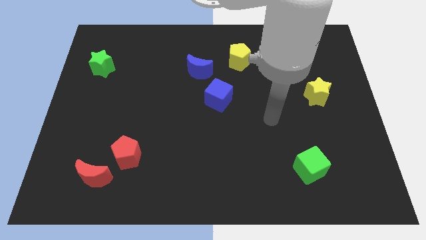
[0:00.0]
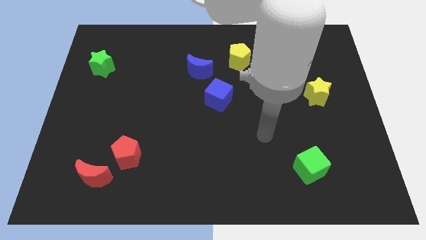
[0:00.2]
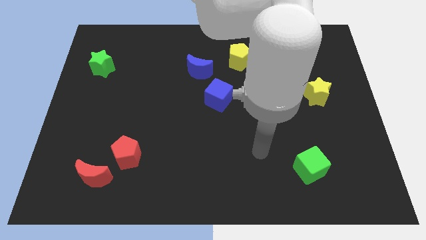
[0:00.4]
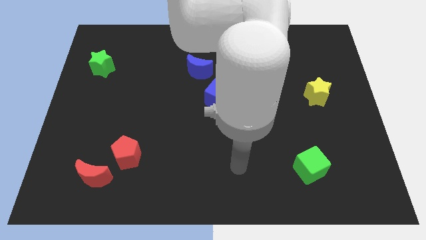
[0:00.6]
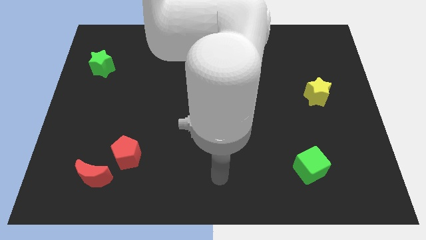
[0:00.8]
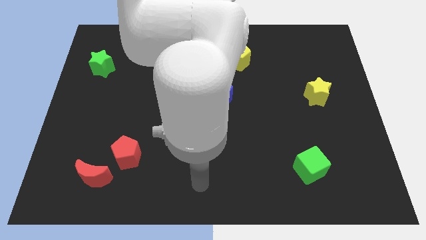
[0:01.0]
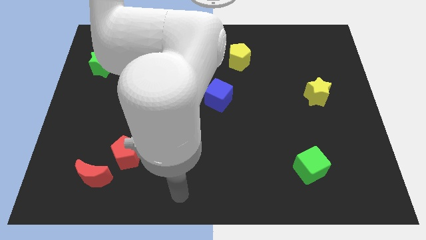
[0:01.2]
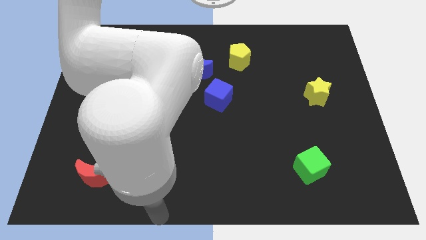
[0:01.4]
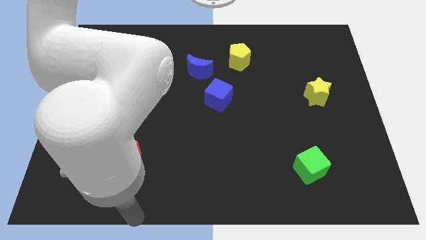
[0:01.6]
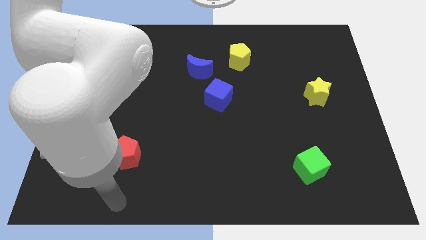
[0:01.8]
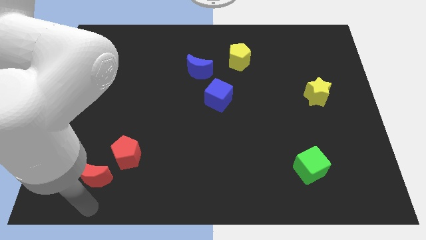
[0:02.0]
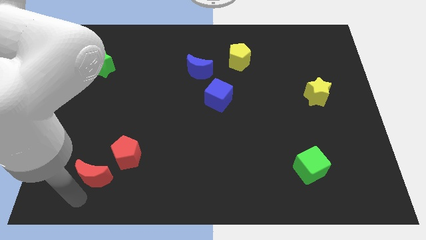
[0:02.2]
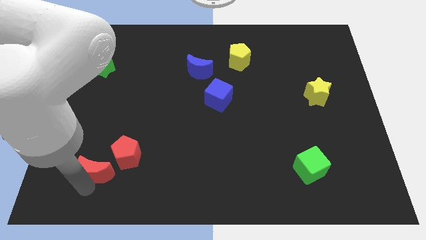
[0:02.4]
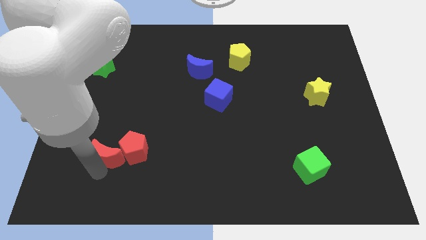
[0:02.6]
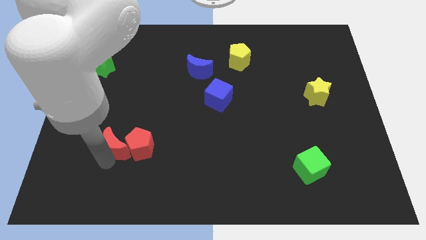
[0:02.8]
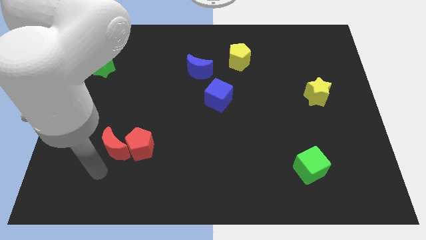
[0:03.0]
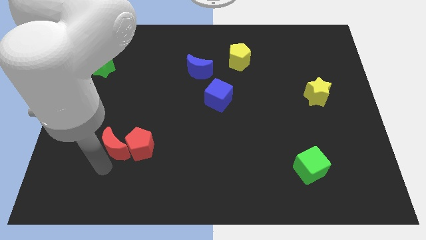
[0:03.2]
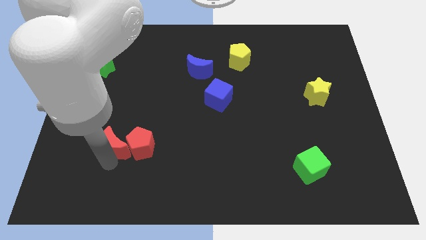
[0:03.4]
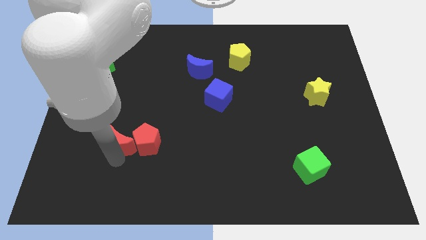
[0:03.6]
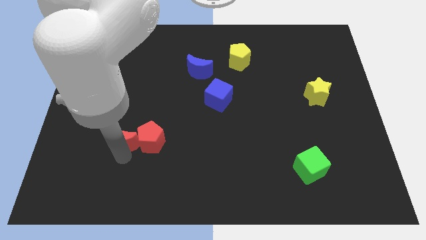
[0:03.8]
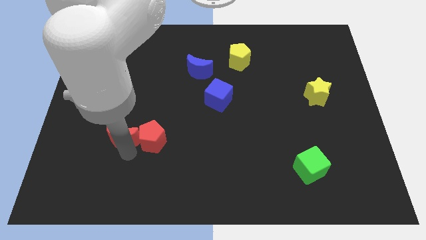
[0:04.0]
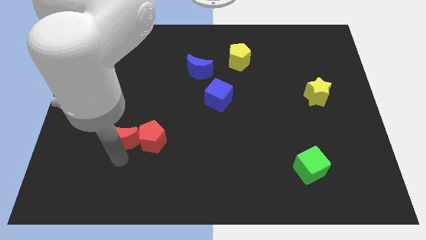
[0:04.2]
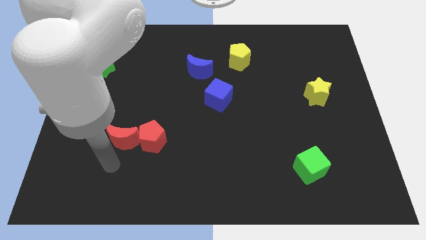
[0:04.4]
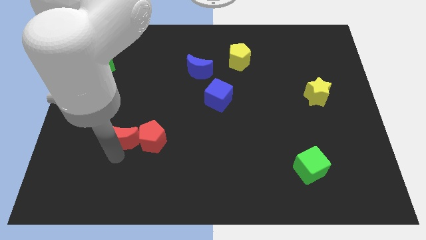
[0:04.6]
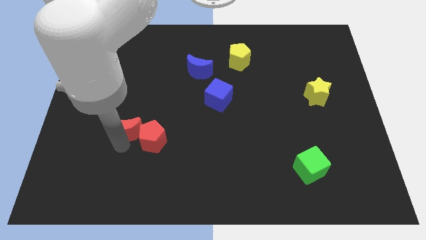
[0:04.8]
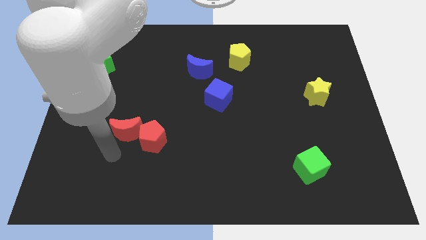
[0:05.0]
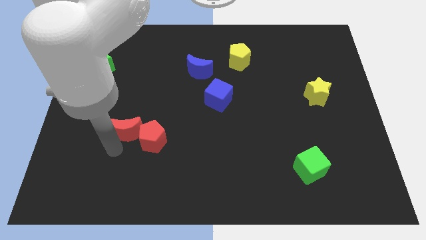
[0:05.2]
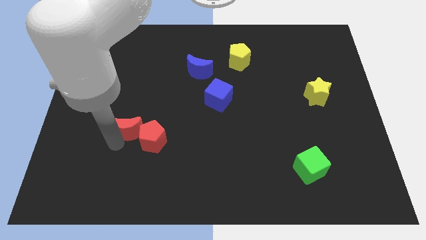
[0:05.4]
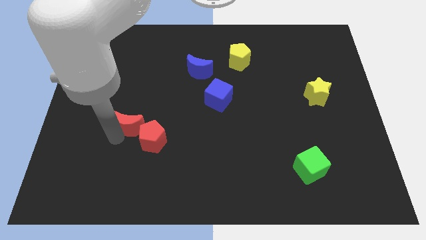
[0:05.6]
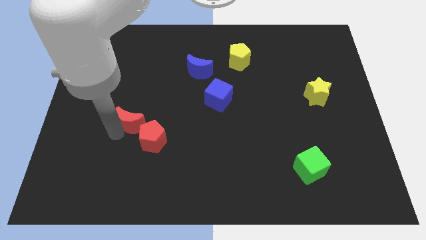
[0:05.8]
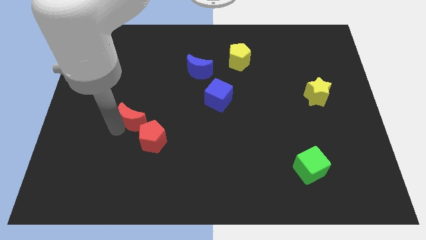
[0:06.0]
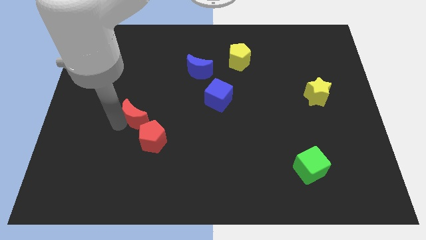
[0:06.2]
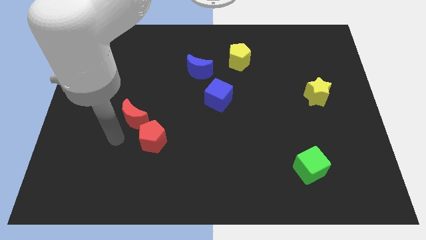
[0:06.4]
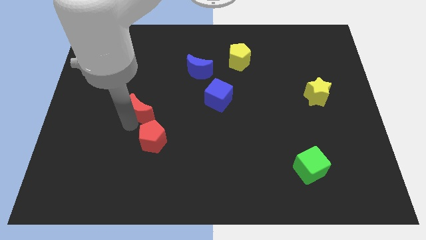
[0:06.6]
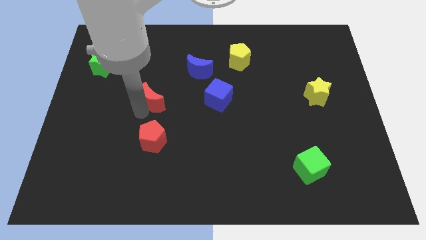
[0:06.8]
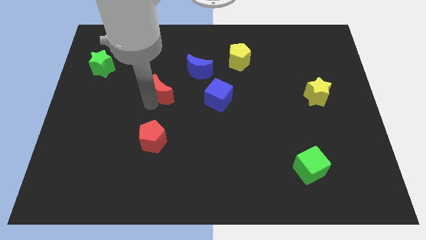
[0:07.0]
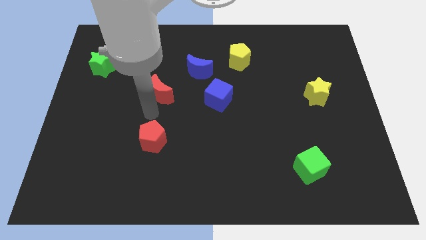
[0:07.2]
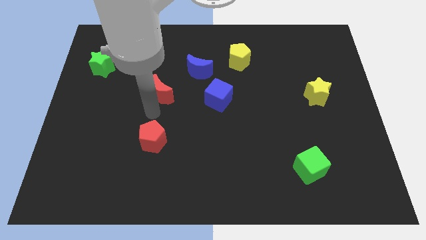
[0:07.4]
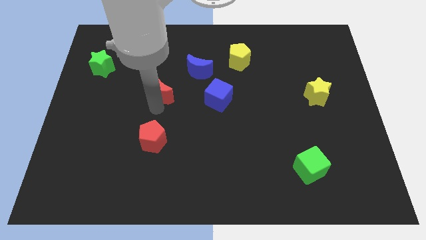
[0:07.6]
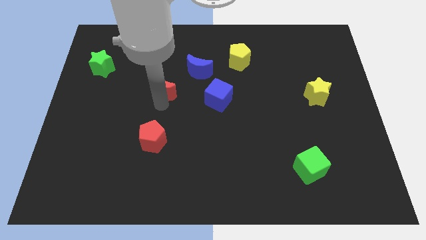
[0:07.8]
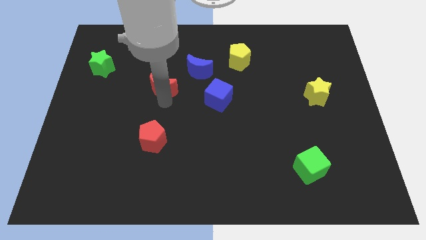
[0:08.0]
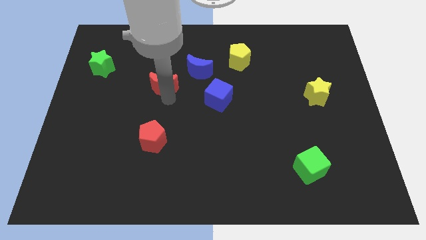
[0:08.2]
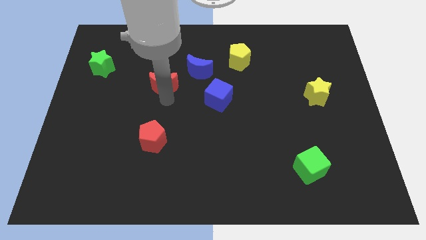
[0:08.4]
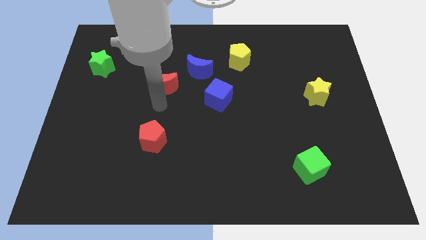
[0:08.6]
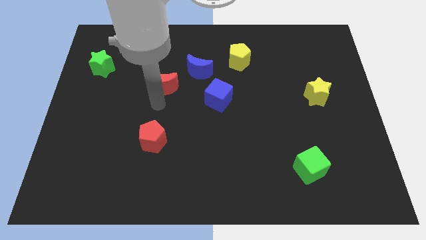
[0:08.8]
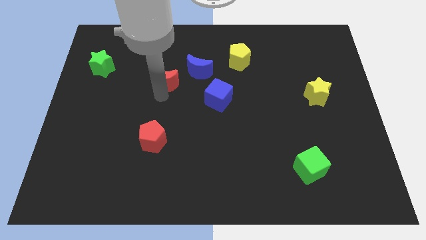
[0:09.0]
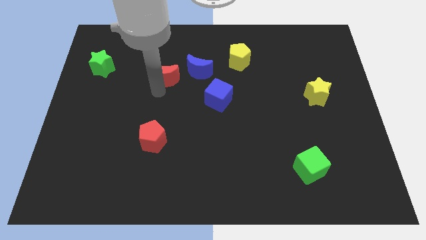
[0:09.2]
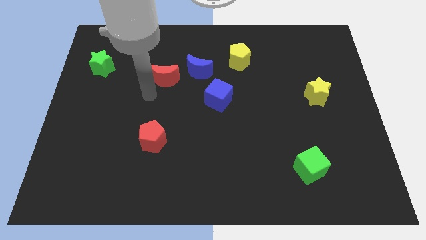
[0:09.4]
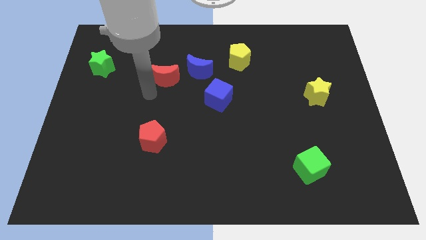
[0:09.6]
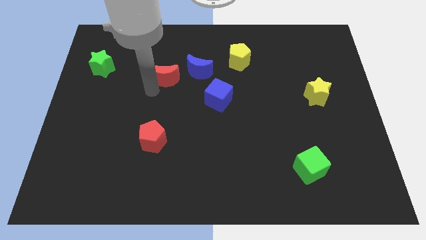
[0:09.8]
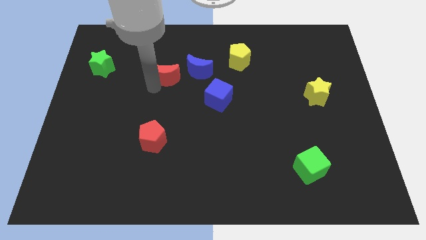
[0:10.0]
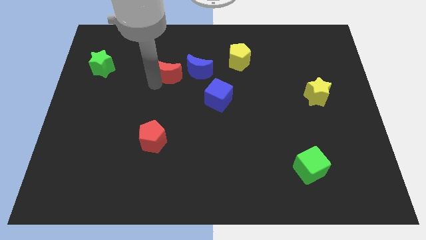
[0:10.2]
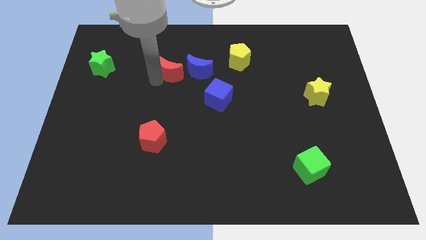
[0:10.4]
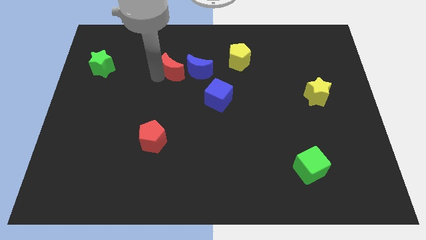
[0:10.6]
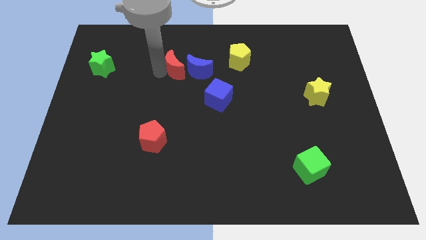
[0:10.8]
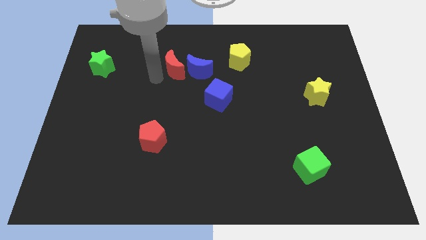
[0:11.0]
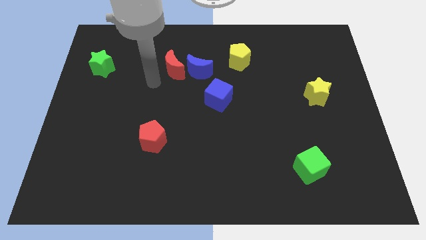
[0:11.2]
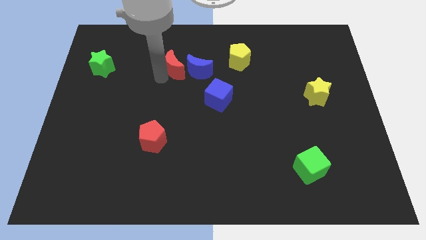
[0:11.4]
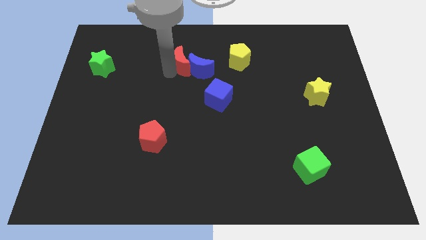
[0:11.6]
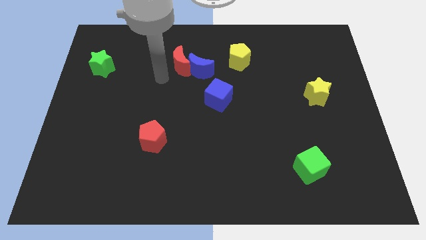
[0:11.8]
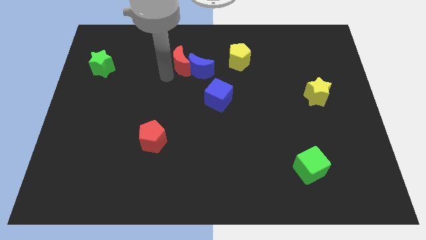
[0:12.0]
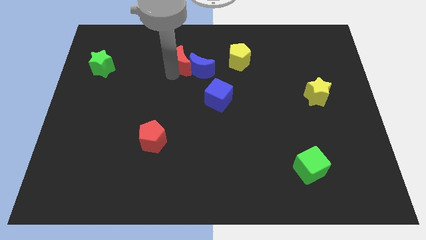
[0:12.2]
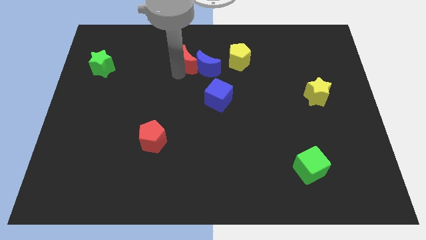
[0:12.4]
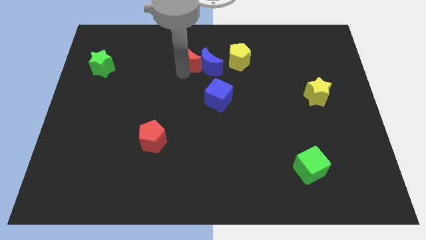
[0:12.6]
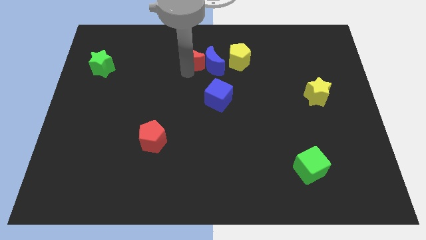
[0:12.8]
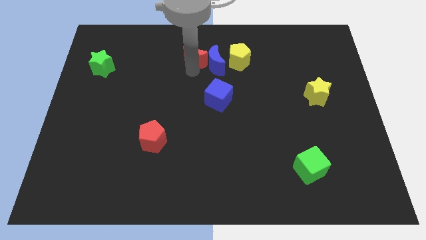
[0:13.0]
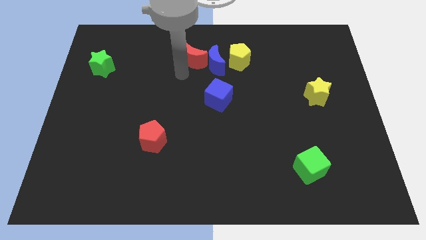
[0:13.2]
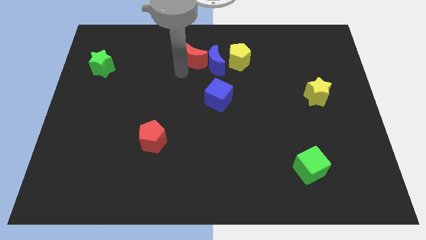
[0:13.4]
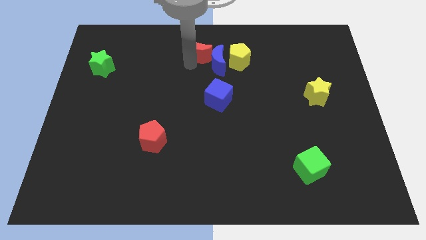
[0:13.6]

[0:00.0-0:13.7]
put the red moon to the top
